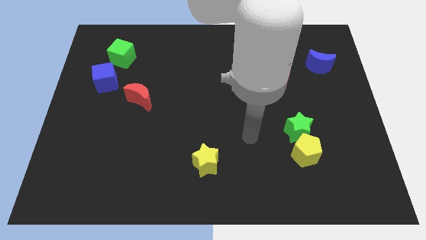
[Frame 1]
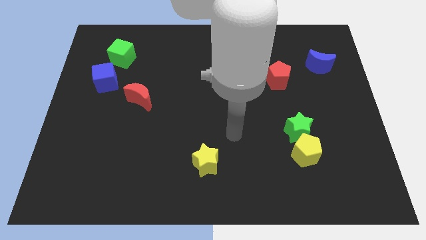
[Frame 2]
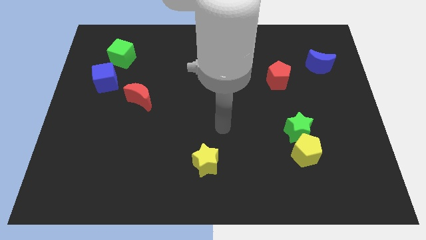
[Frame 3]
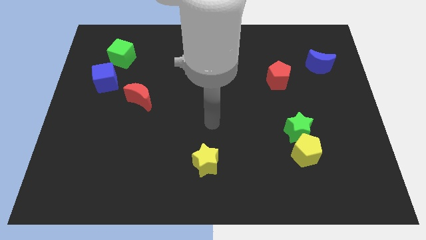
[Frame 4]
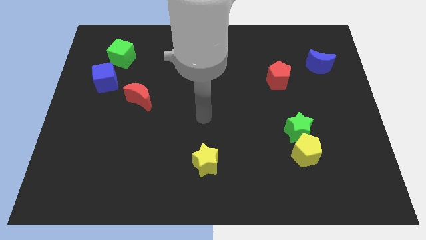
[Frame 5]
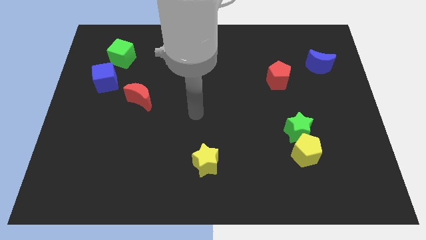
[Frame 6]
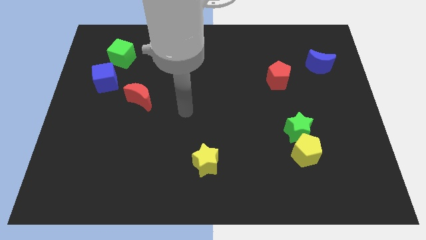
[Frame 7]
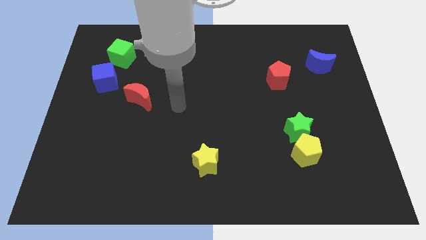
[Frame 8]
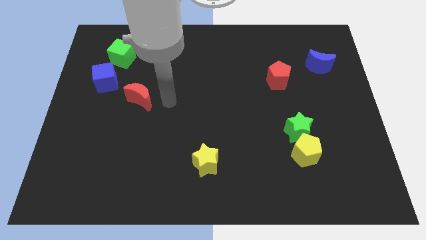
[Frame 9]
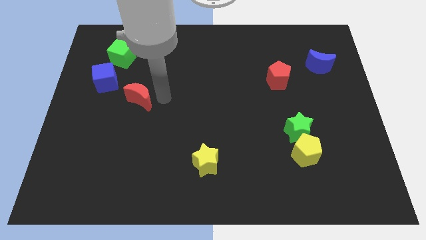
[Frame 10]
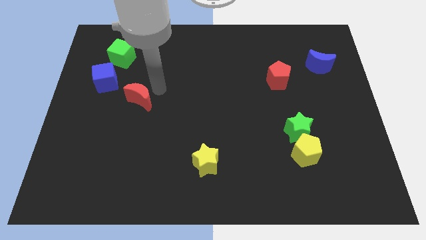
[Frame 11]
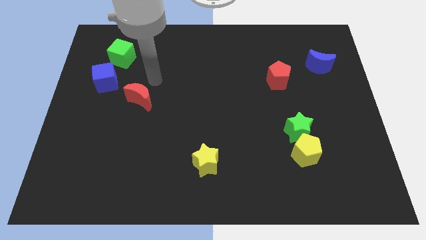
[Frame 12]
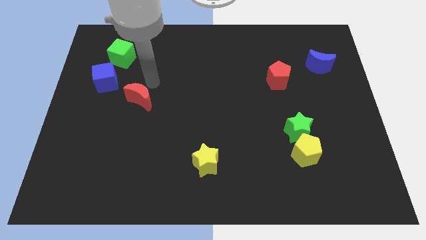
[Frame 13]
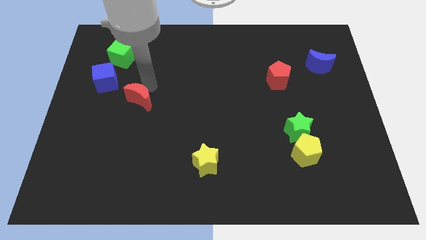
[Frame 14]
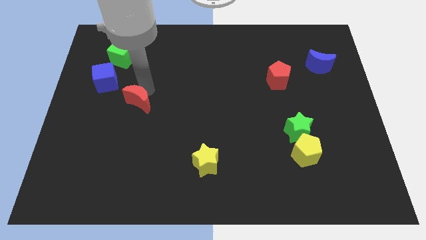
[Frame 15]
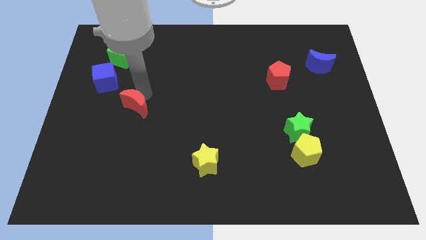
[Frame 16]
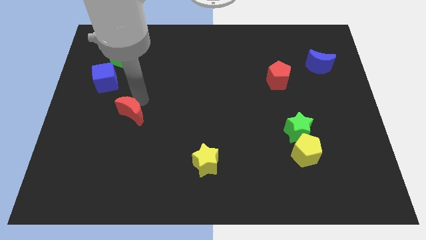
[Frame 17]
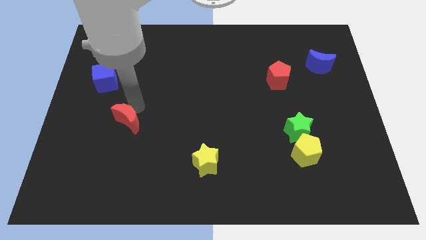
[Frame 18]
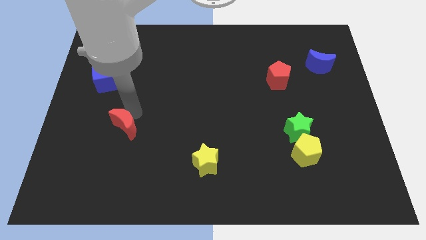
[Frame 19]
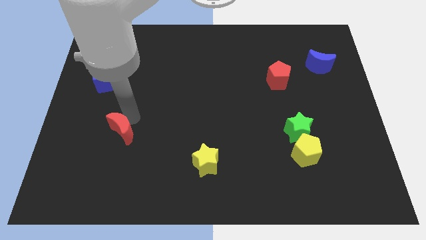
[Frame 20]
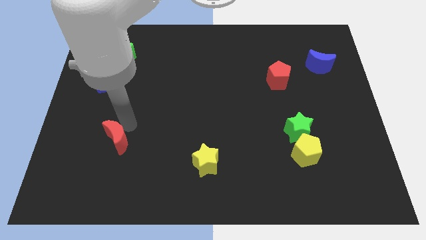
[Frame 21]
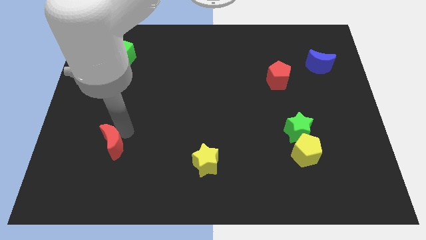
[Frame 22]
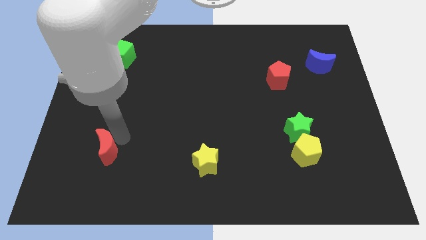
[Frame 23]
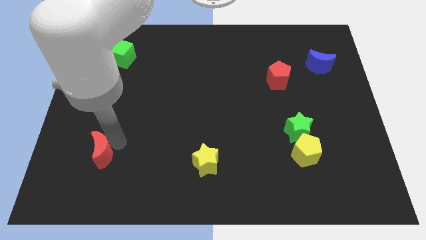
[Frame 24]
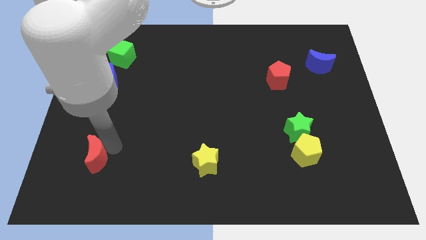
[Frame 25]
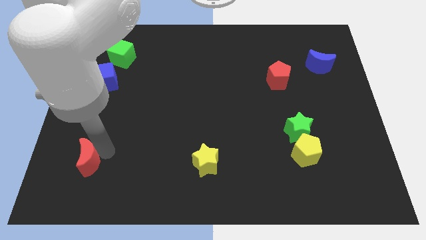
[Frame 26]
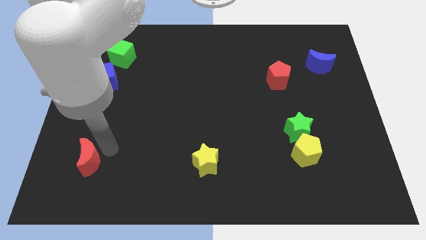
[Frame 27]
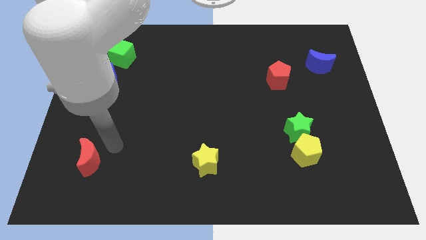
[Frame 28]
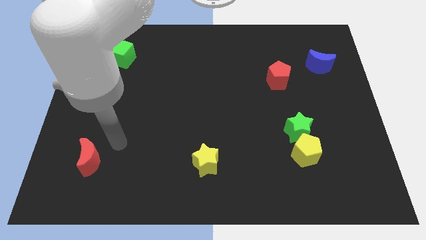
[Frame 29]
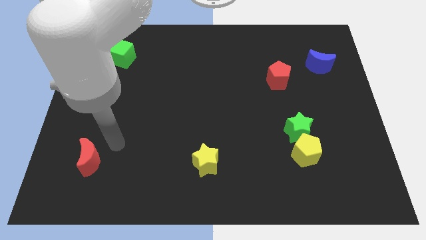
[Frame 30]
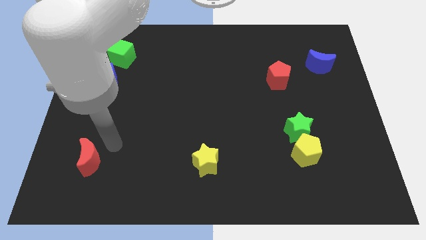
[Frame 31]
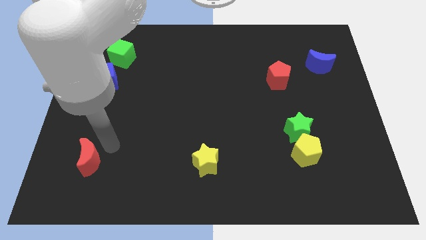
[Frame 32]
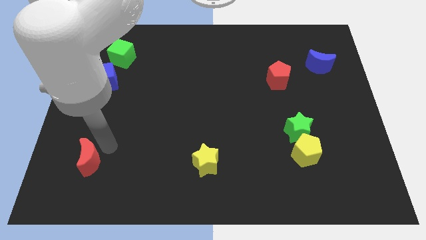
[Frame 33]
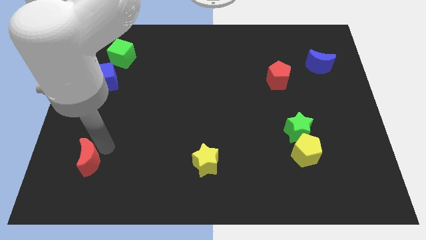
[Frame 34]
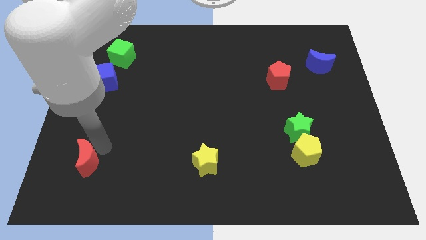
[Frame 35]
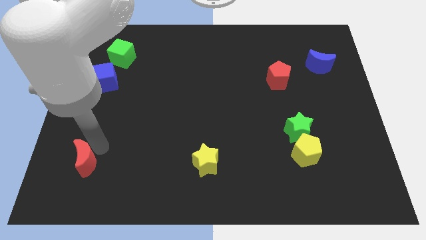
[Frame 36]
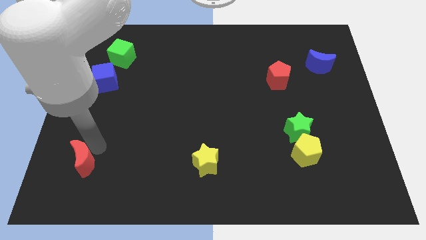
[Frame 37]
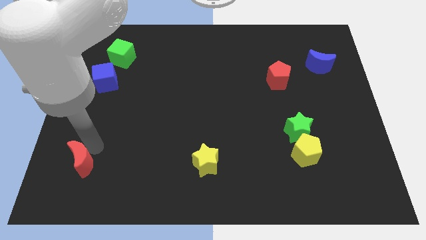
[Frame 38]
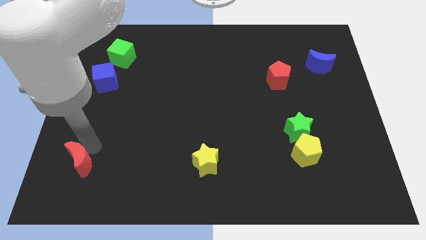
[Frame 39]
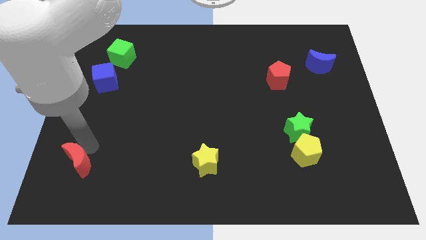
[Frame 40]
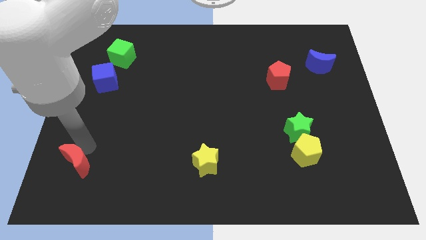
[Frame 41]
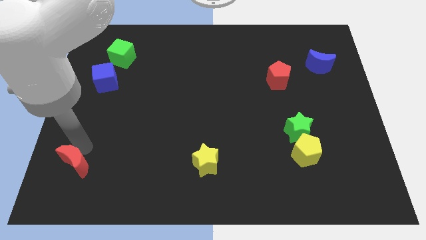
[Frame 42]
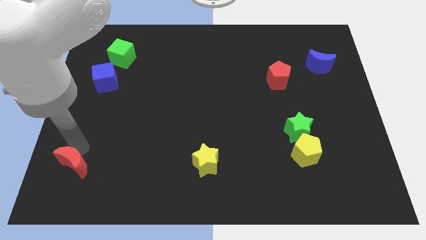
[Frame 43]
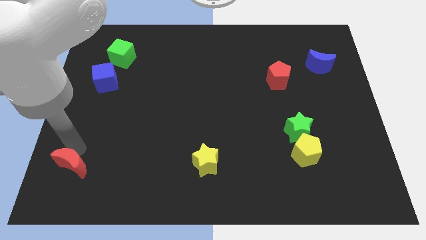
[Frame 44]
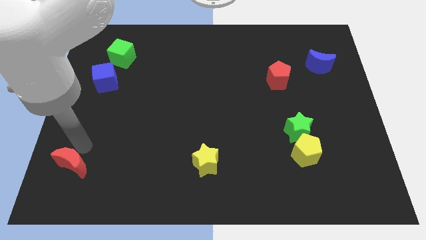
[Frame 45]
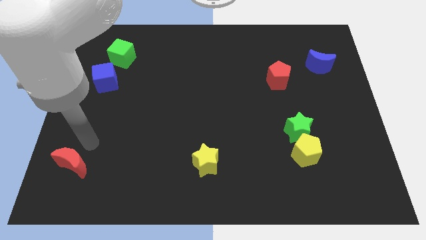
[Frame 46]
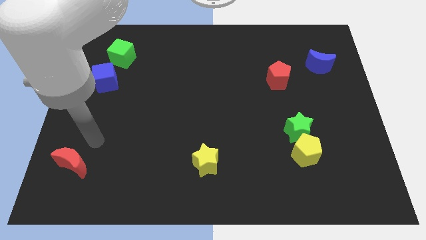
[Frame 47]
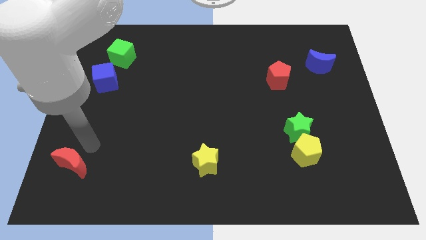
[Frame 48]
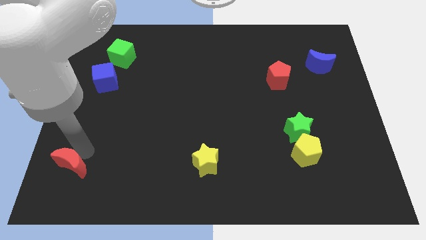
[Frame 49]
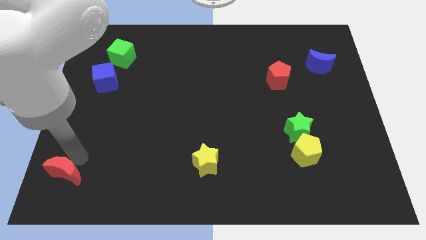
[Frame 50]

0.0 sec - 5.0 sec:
put the red moon to the bottom left corner

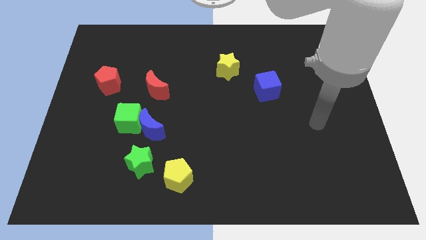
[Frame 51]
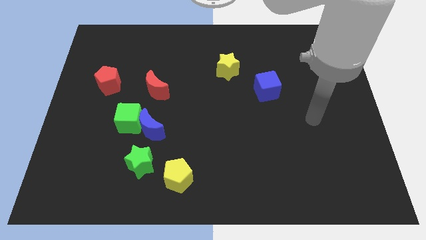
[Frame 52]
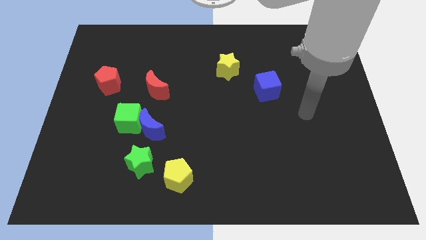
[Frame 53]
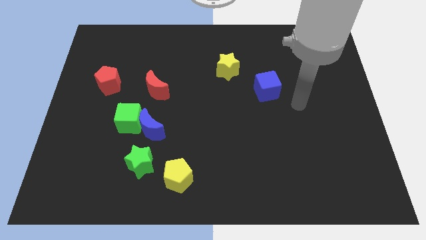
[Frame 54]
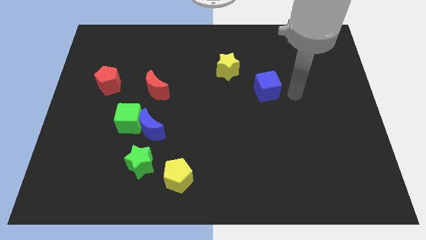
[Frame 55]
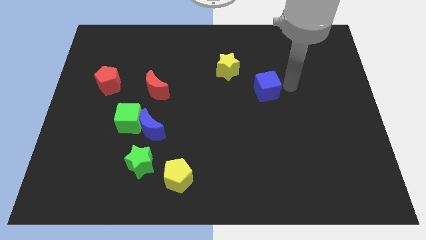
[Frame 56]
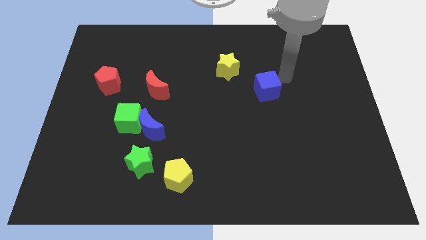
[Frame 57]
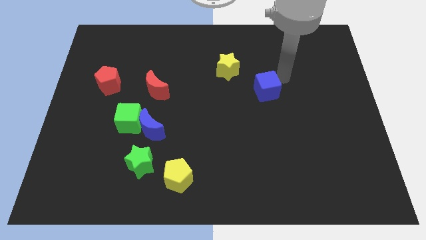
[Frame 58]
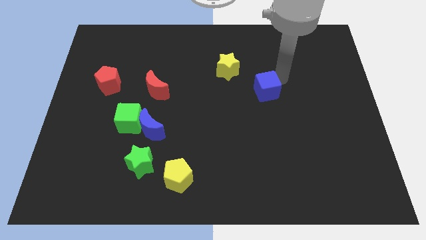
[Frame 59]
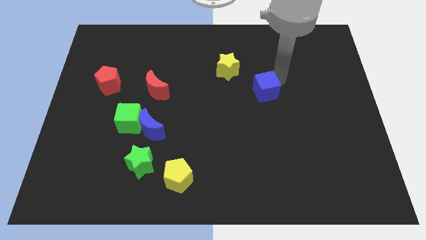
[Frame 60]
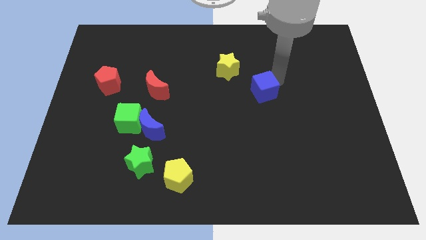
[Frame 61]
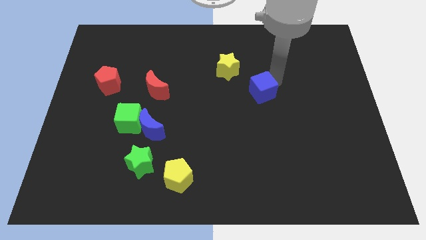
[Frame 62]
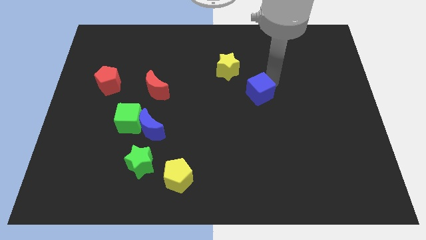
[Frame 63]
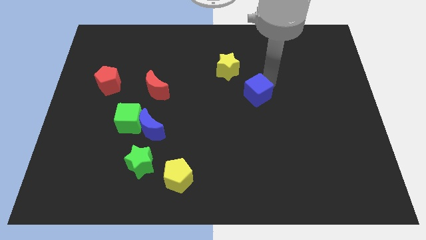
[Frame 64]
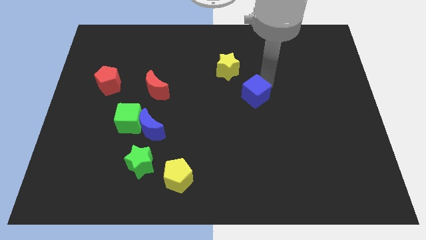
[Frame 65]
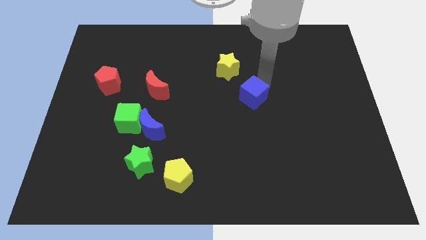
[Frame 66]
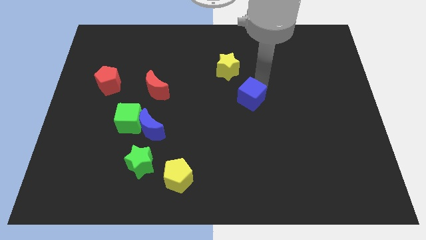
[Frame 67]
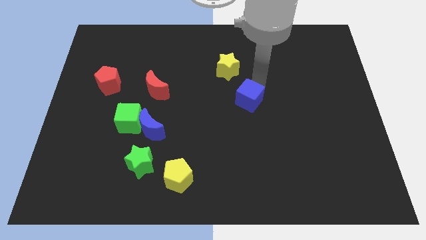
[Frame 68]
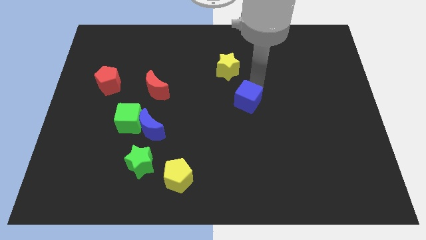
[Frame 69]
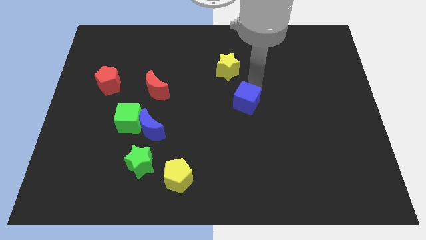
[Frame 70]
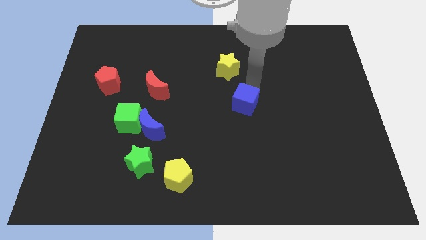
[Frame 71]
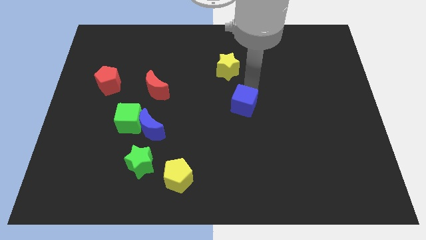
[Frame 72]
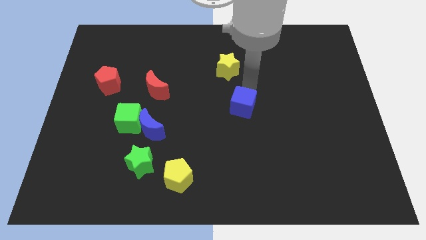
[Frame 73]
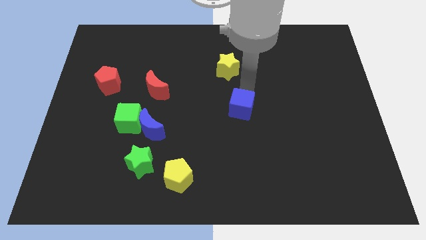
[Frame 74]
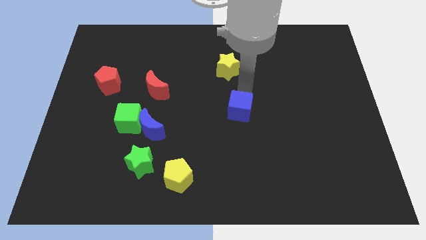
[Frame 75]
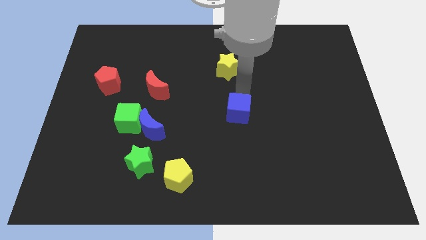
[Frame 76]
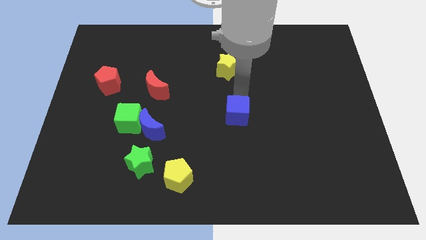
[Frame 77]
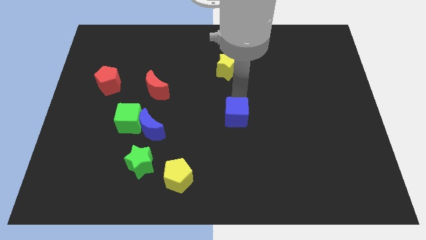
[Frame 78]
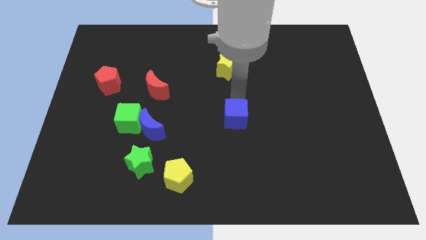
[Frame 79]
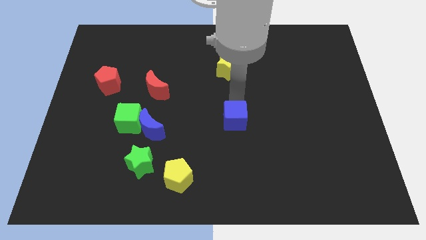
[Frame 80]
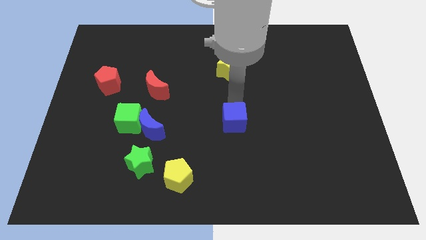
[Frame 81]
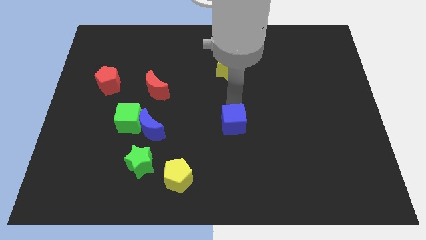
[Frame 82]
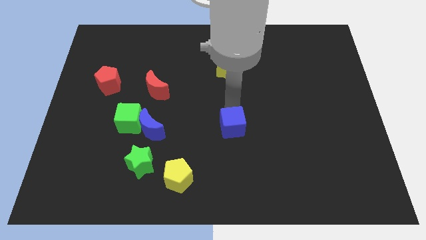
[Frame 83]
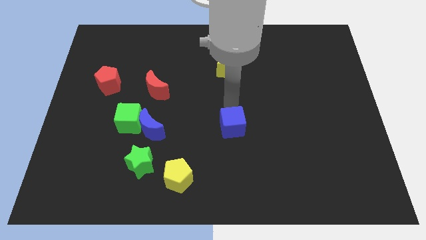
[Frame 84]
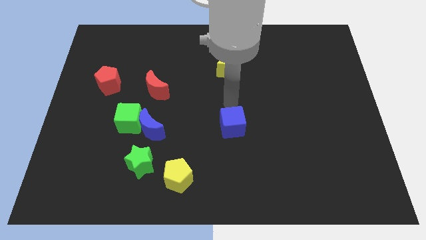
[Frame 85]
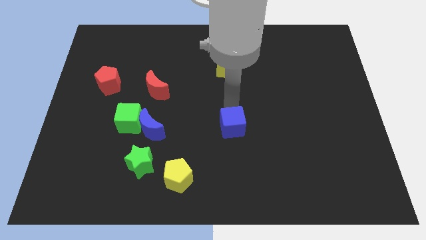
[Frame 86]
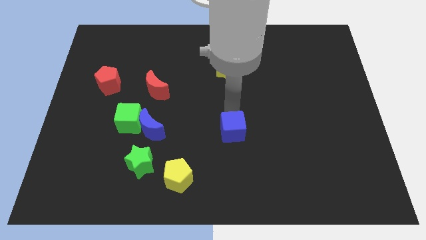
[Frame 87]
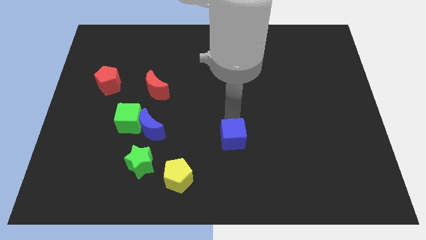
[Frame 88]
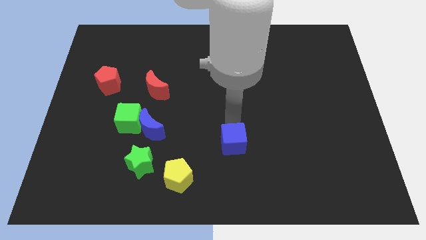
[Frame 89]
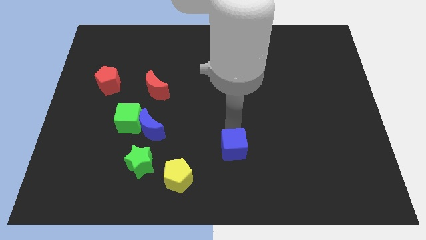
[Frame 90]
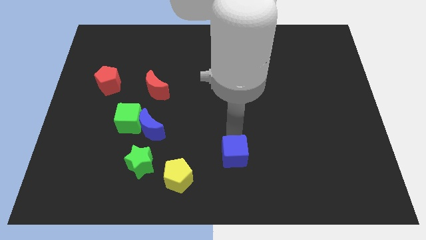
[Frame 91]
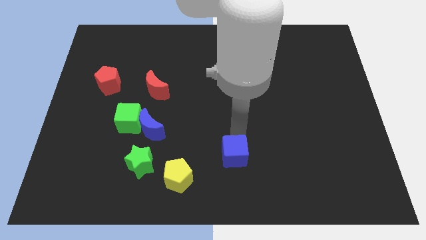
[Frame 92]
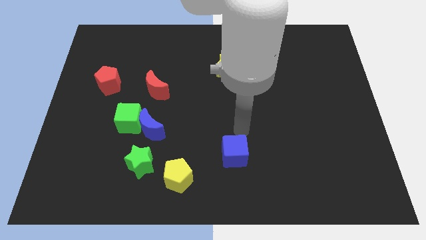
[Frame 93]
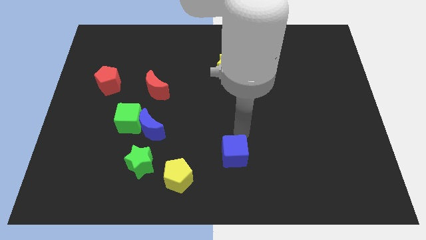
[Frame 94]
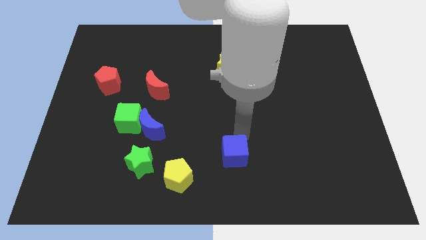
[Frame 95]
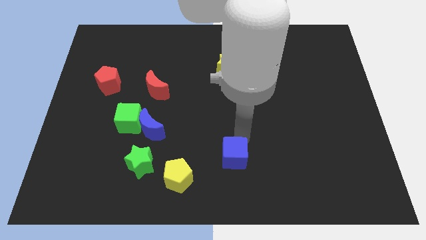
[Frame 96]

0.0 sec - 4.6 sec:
move the blue cube to the bottom side
